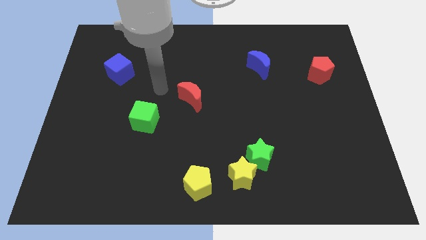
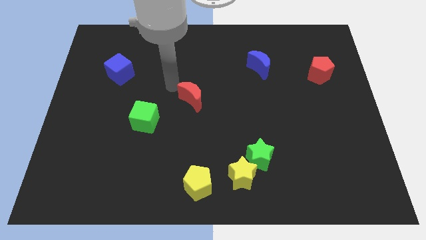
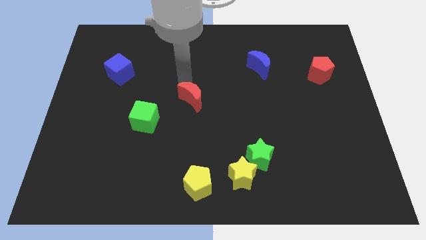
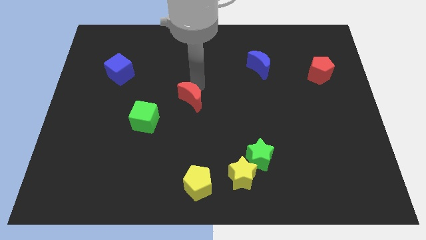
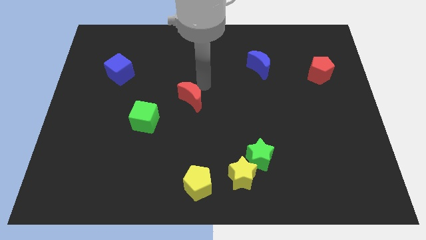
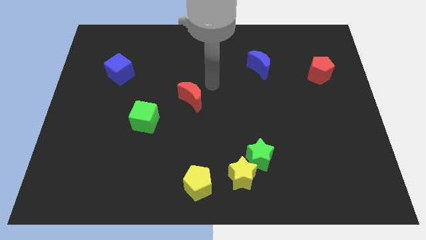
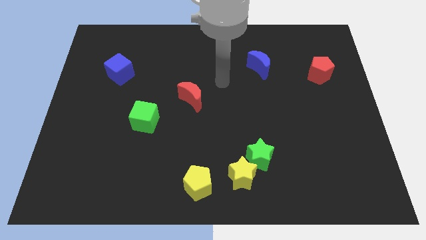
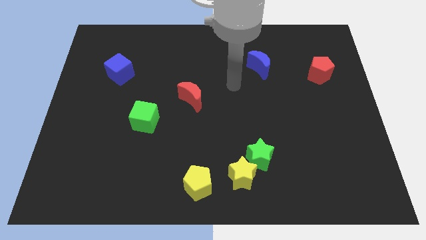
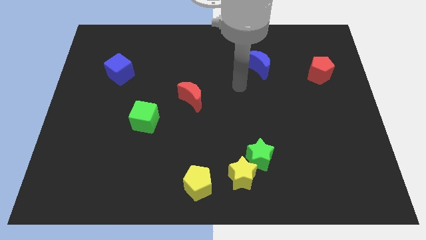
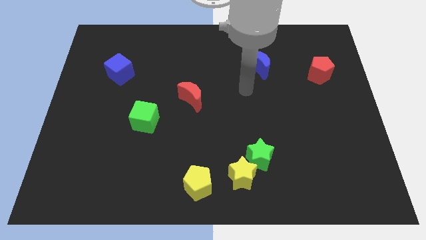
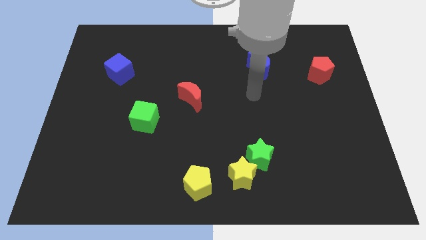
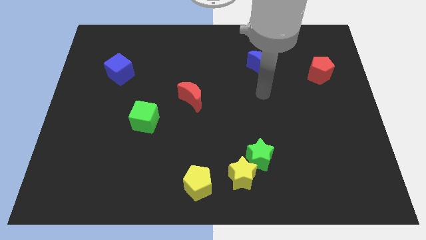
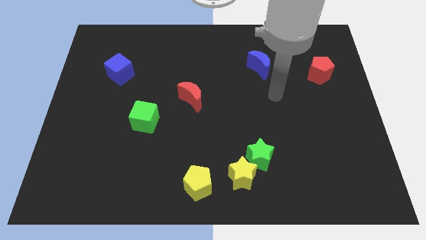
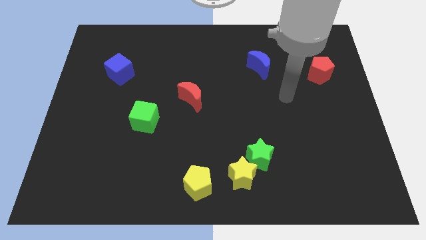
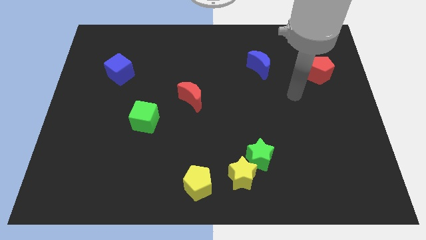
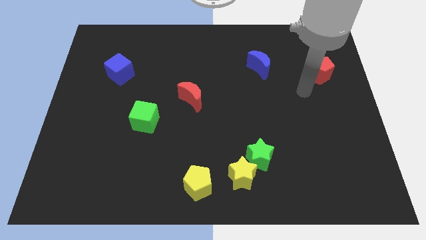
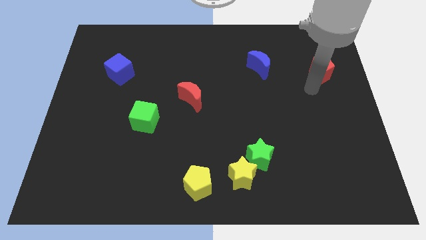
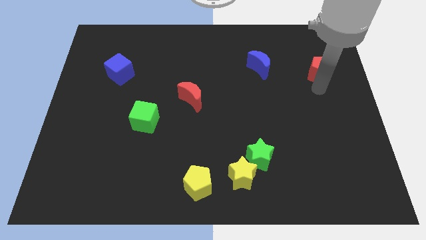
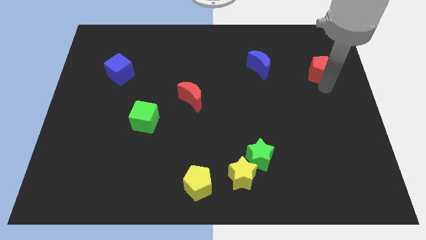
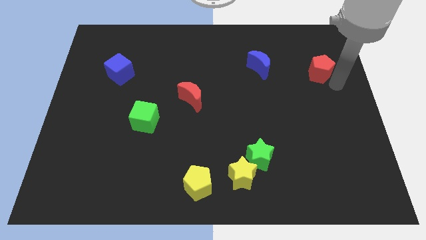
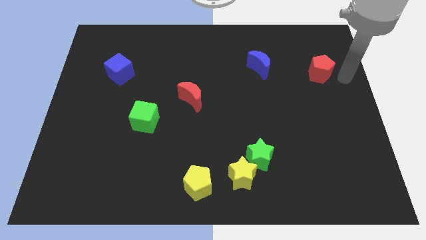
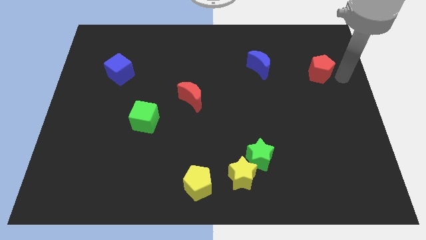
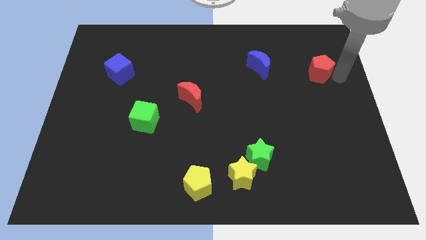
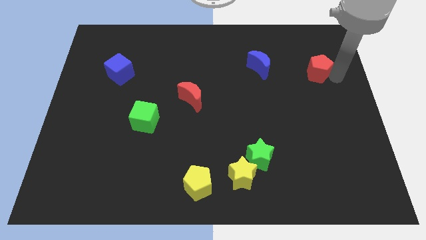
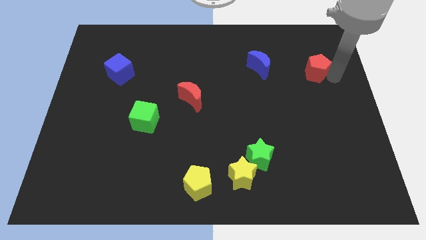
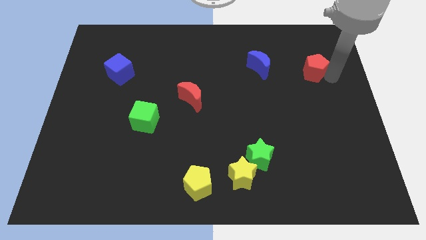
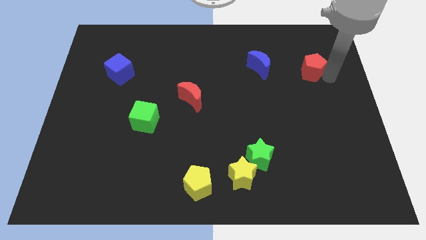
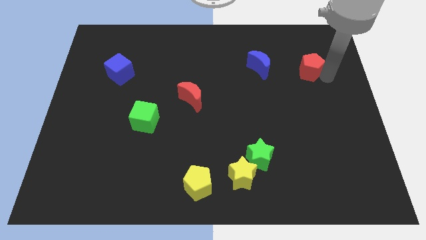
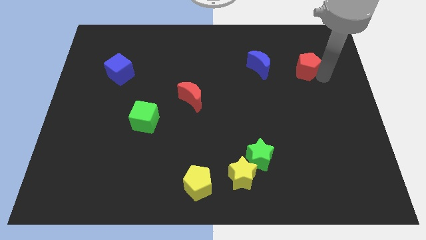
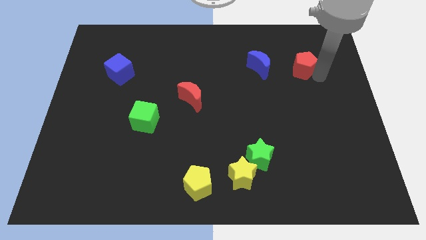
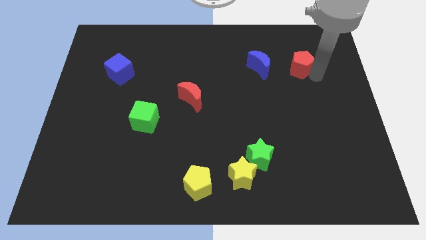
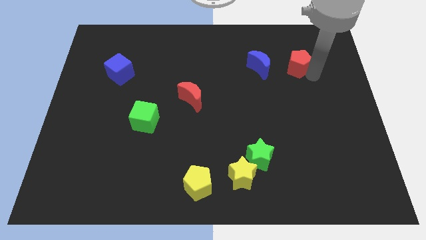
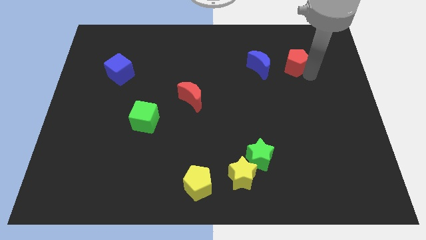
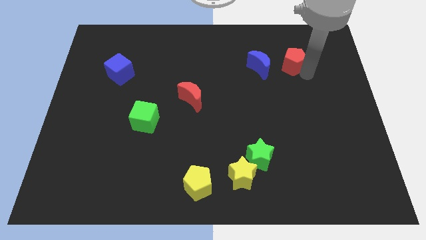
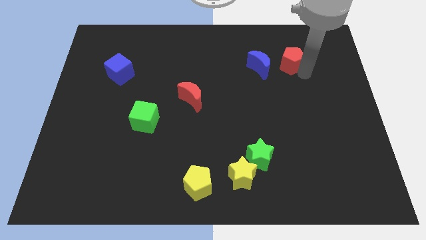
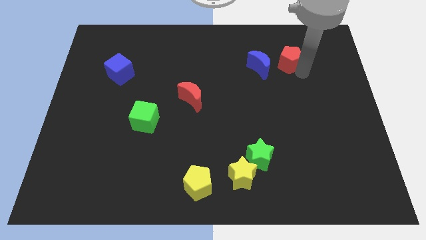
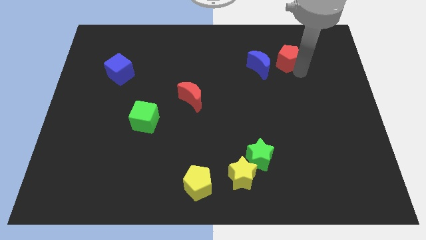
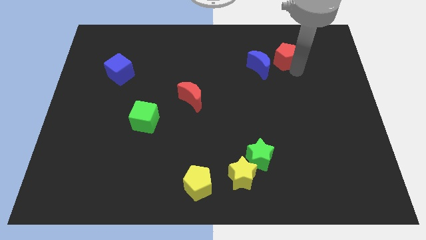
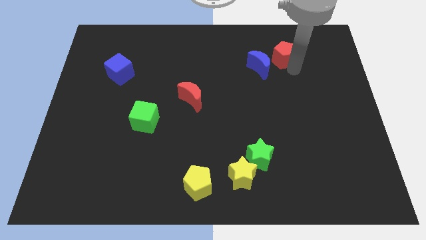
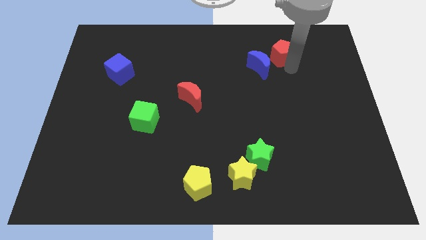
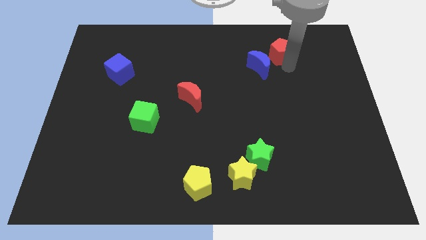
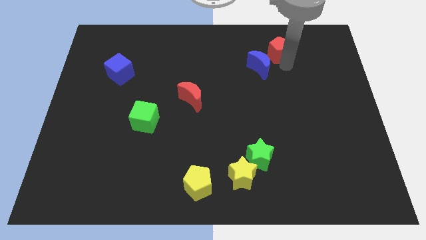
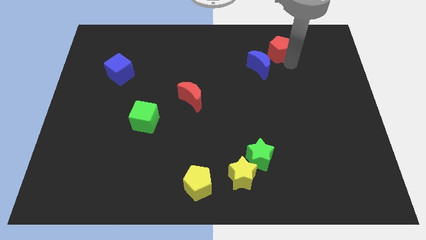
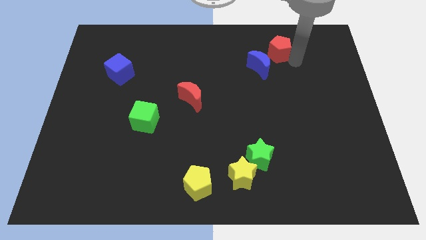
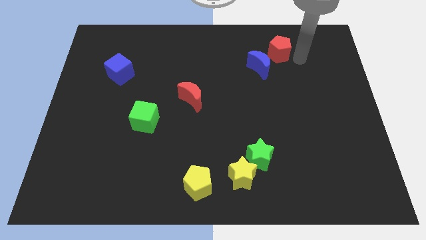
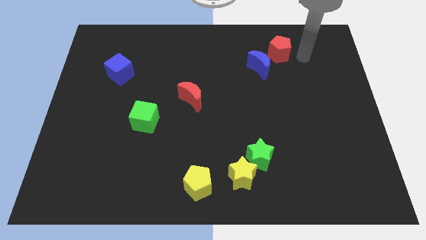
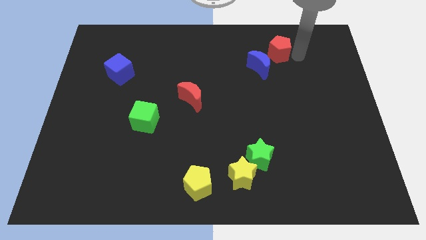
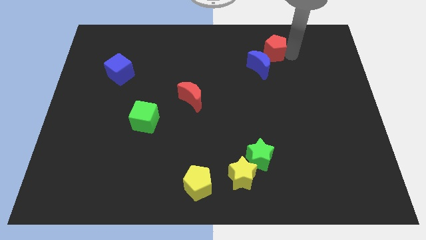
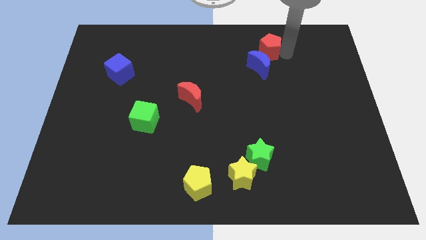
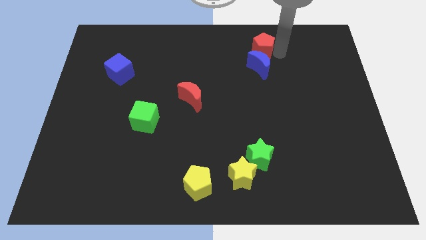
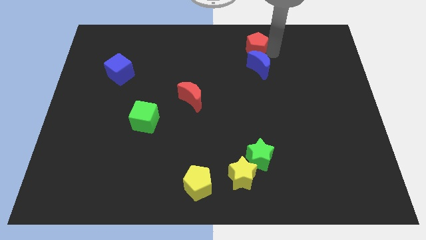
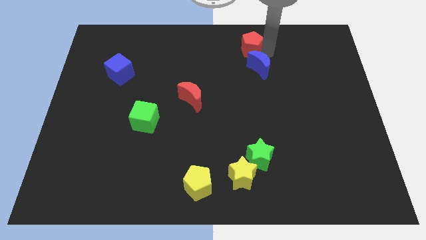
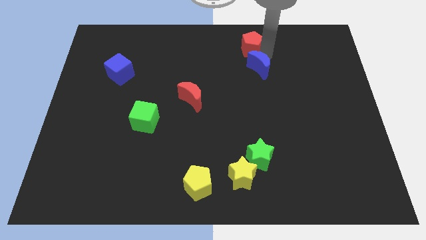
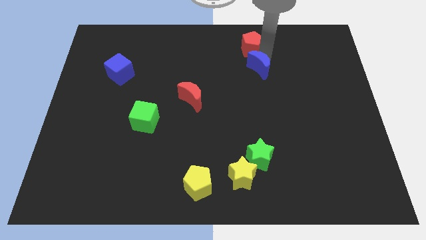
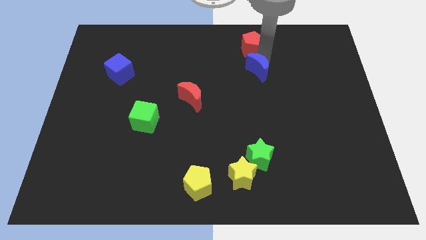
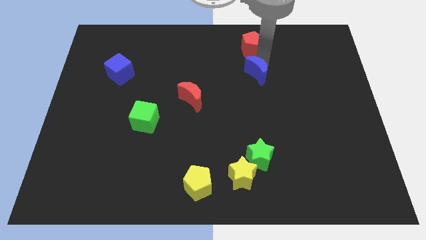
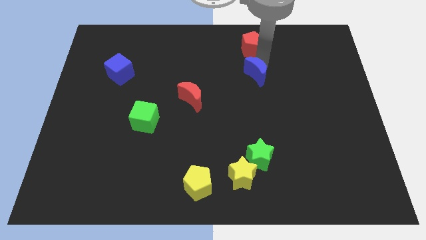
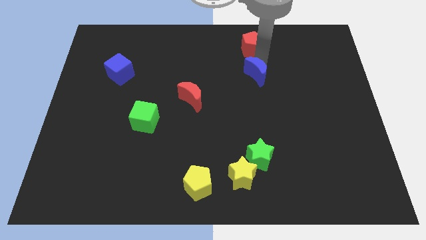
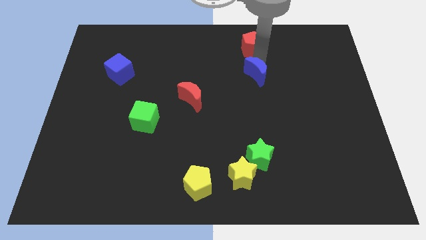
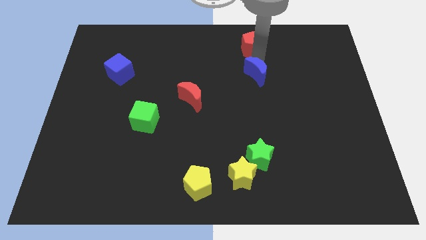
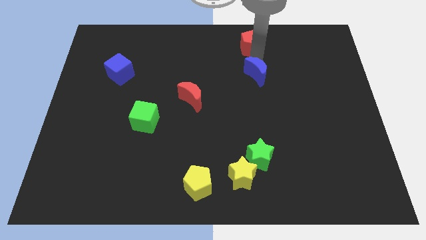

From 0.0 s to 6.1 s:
move the red pentagon to the top side

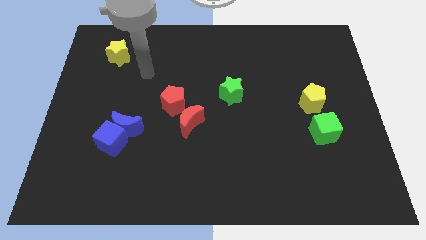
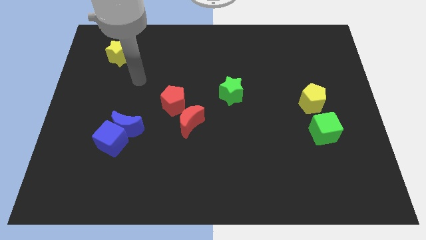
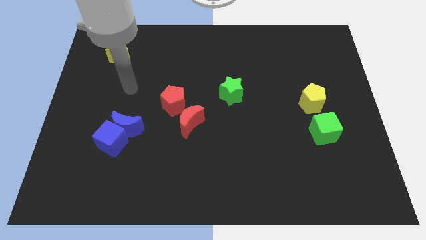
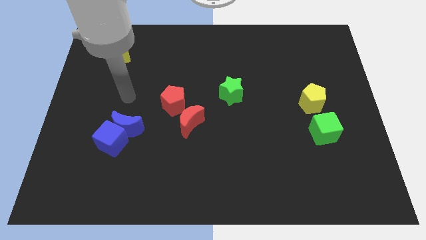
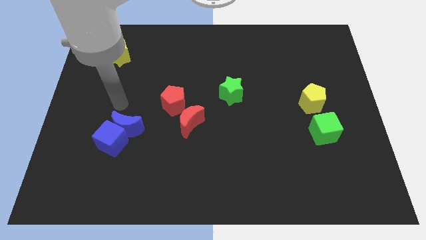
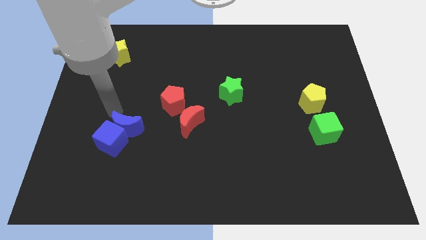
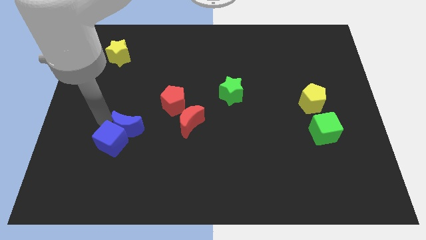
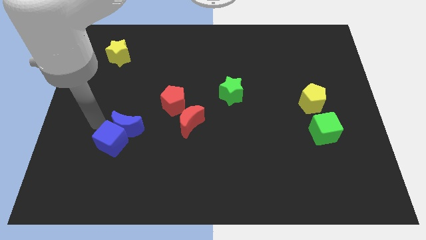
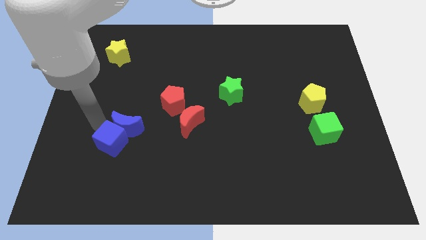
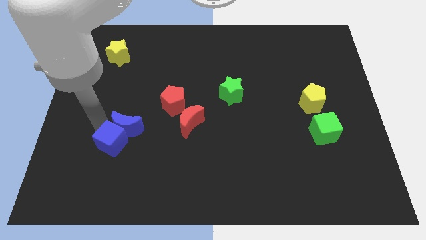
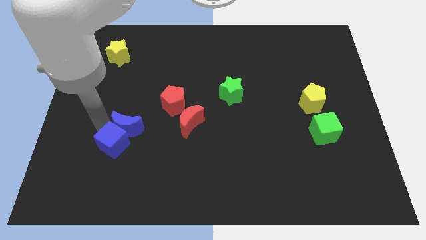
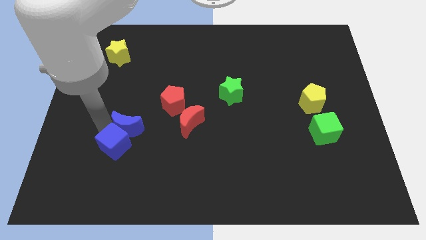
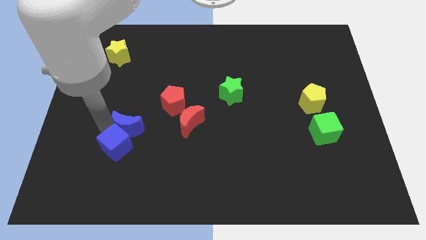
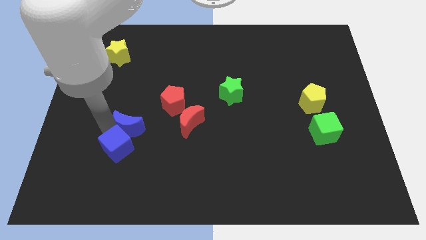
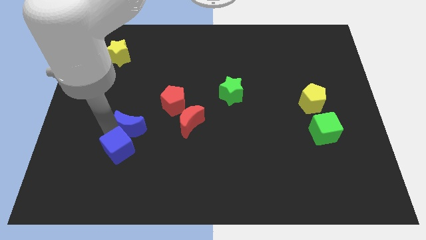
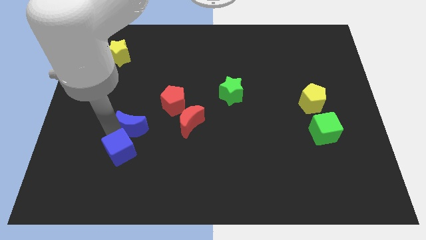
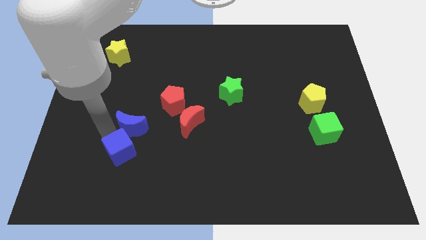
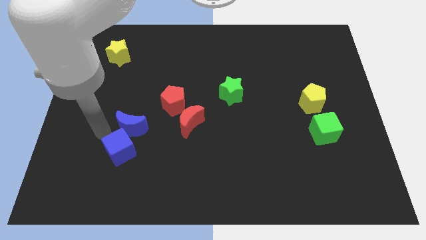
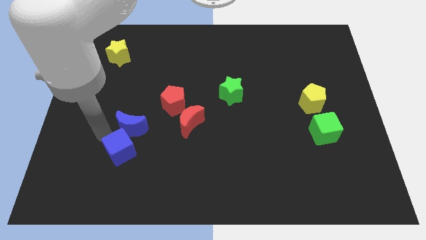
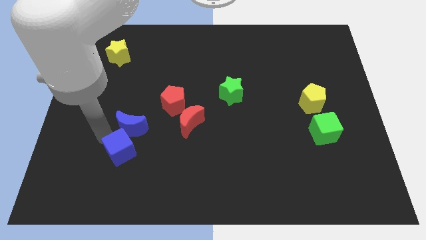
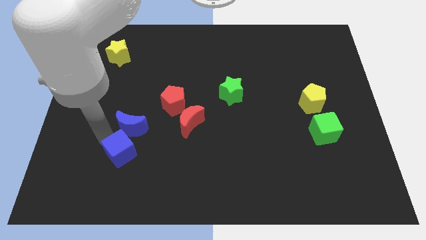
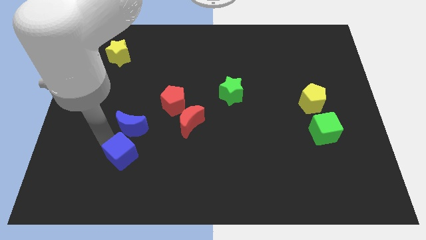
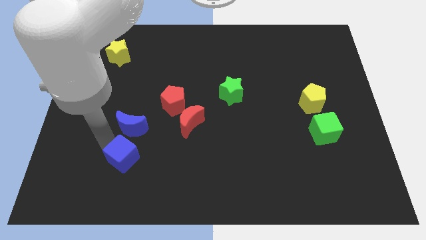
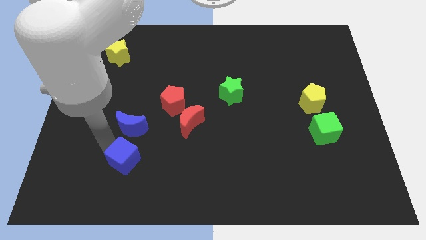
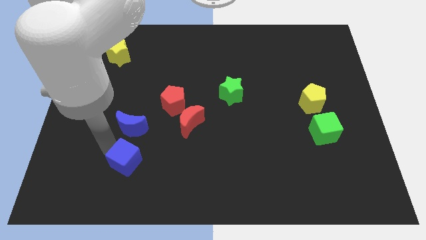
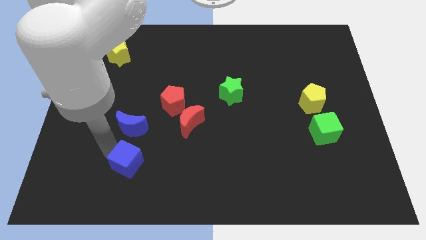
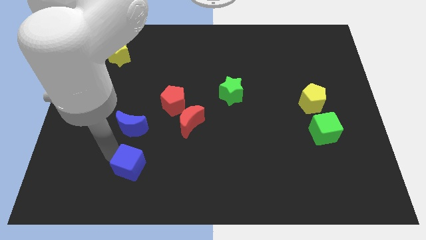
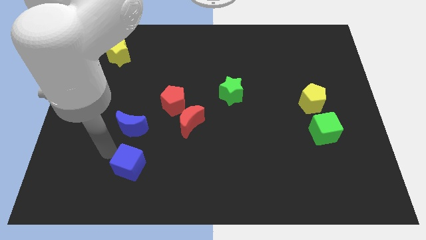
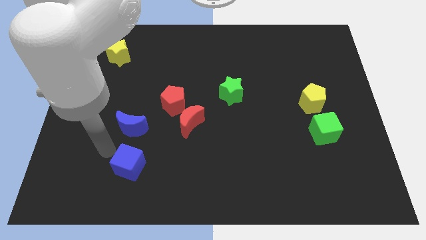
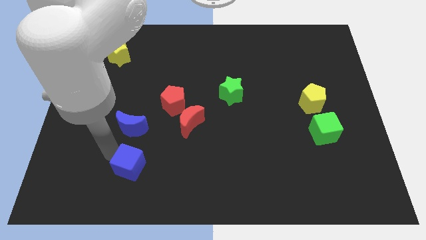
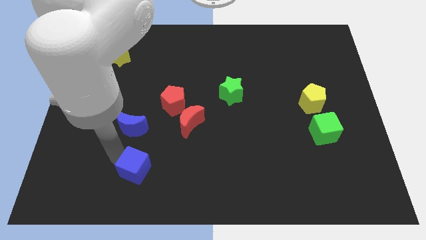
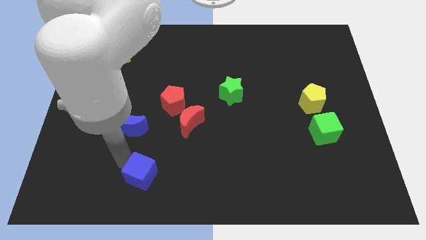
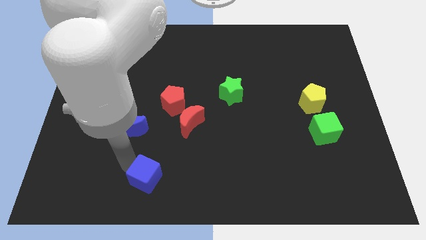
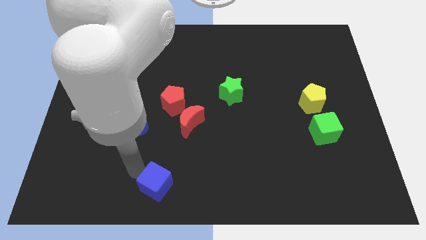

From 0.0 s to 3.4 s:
push the blue cube to the bottom
